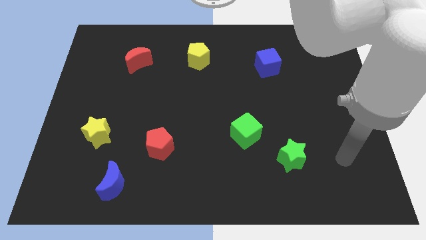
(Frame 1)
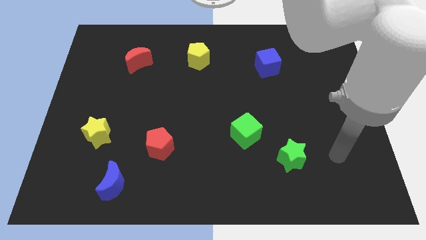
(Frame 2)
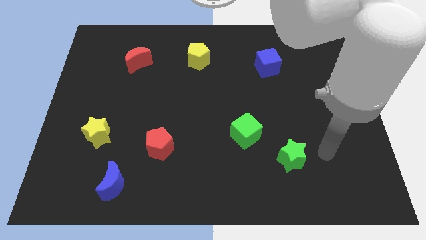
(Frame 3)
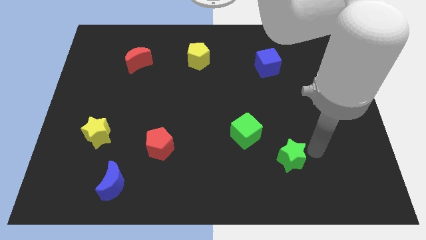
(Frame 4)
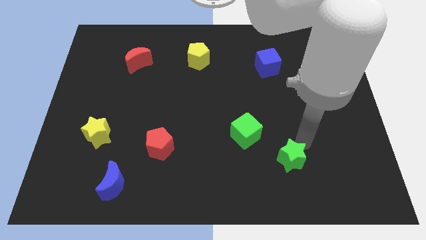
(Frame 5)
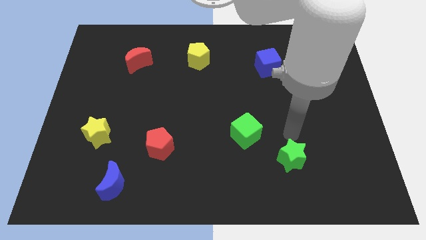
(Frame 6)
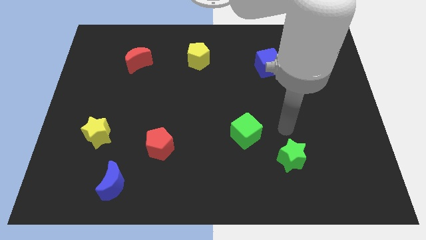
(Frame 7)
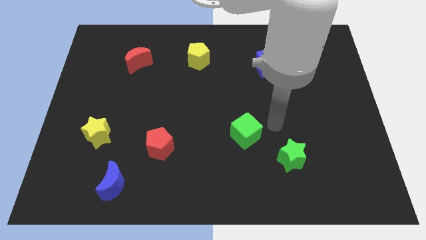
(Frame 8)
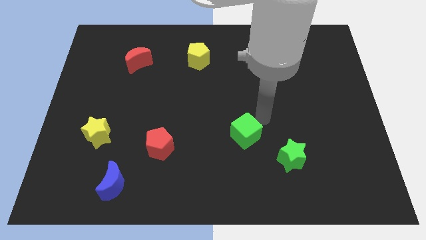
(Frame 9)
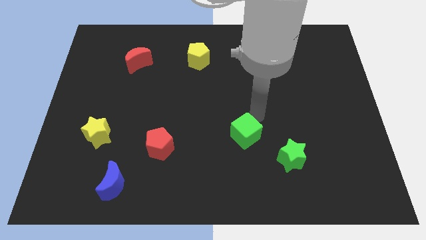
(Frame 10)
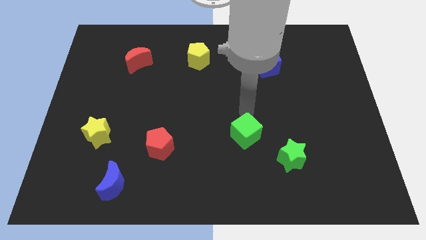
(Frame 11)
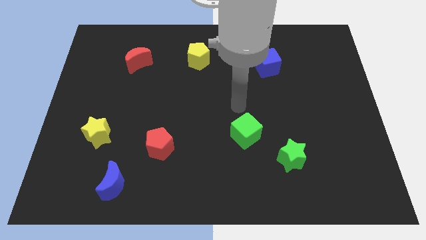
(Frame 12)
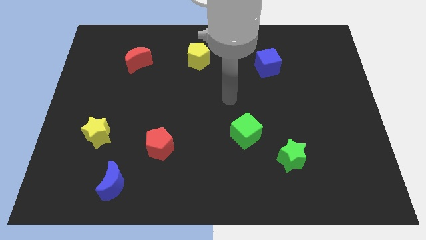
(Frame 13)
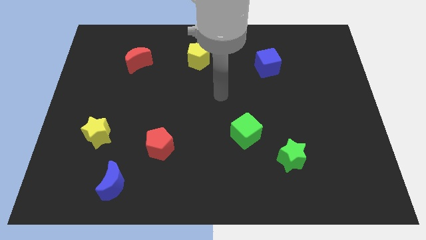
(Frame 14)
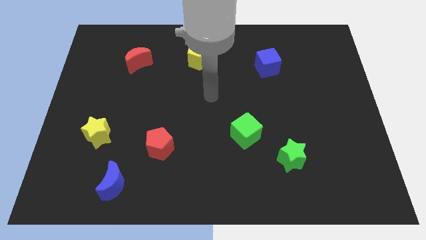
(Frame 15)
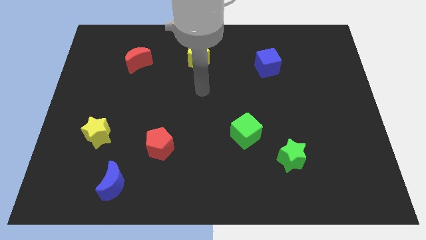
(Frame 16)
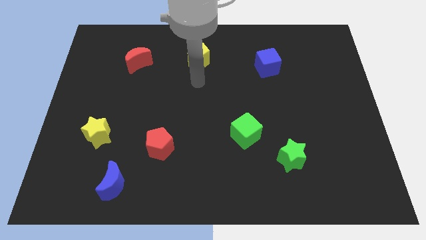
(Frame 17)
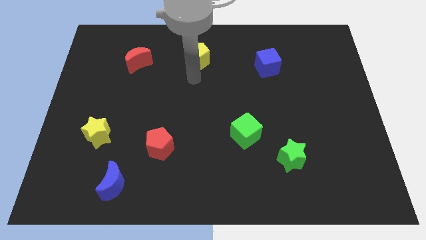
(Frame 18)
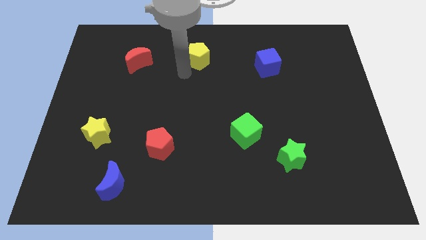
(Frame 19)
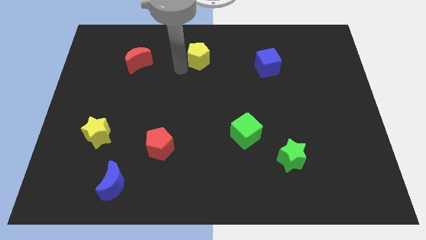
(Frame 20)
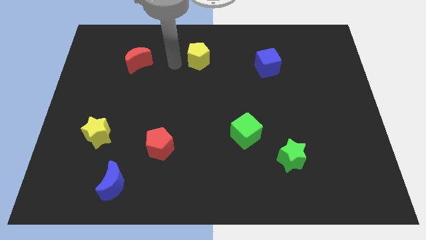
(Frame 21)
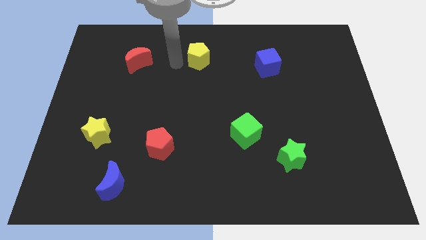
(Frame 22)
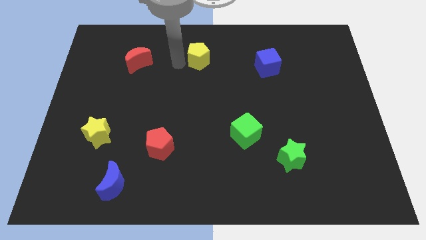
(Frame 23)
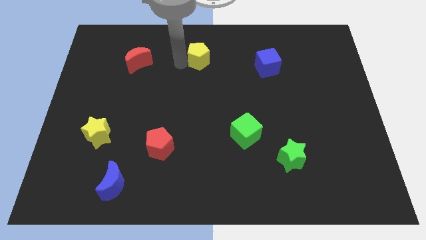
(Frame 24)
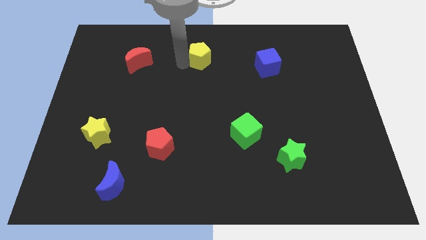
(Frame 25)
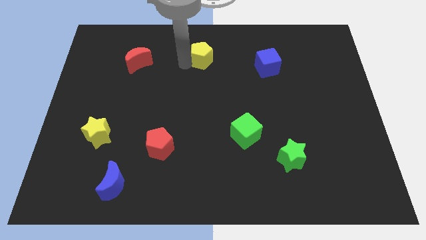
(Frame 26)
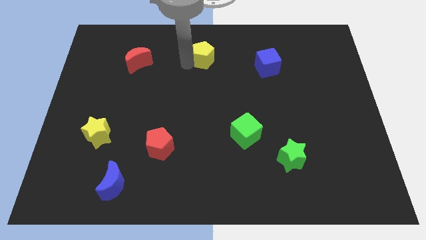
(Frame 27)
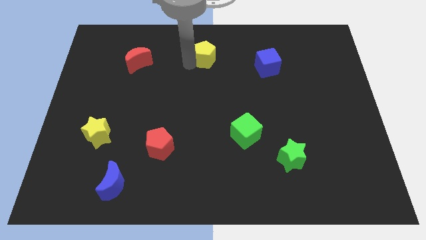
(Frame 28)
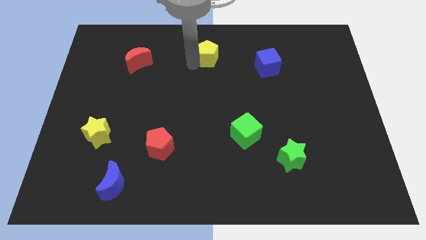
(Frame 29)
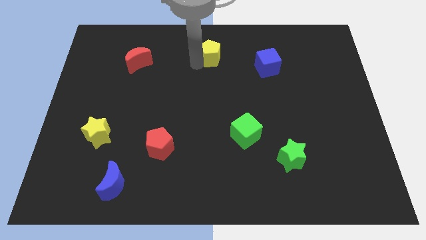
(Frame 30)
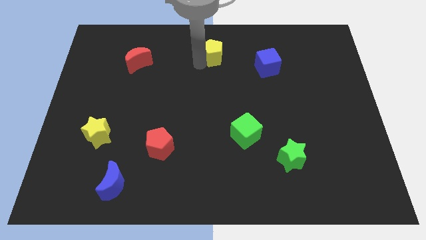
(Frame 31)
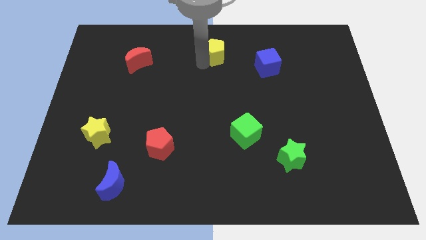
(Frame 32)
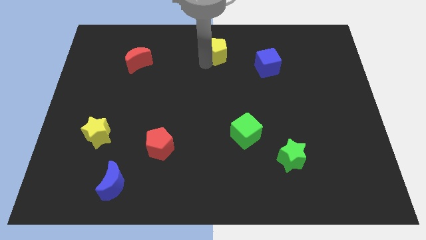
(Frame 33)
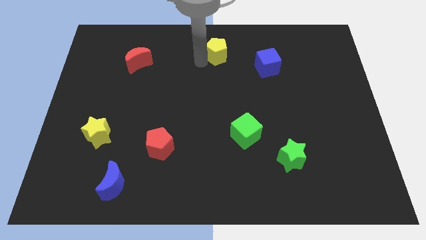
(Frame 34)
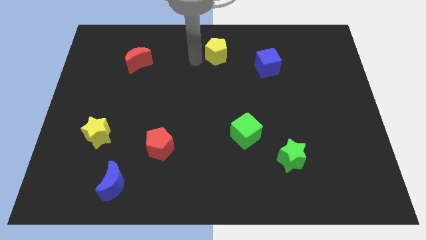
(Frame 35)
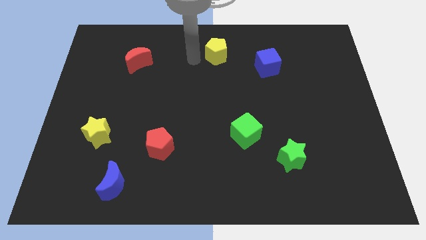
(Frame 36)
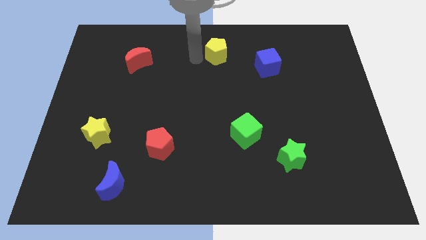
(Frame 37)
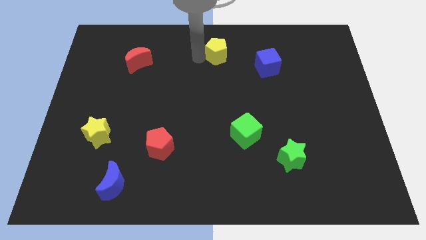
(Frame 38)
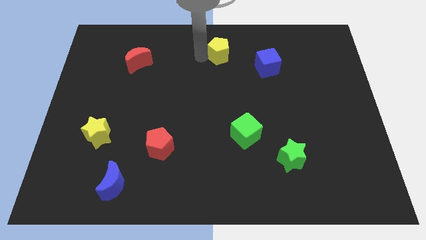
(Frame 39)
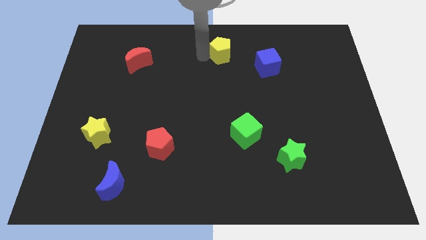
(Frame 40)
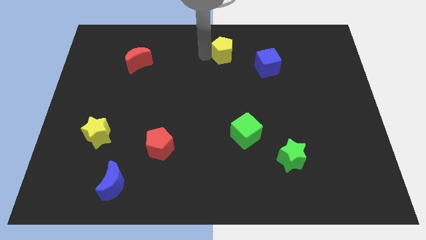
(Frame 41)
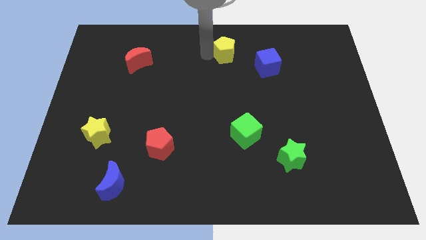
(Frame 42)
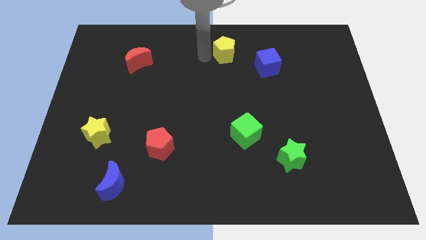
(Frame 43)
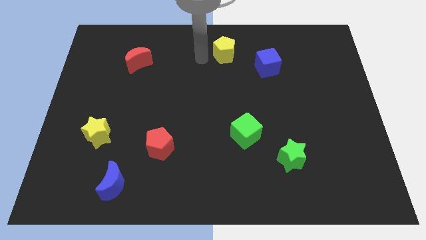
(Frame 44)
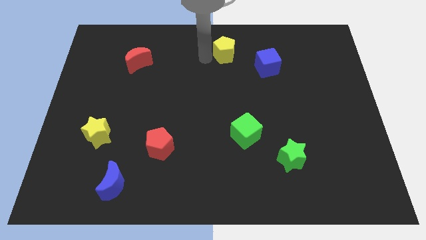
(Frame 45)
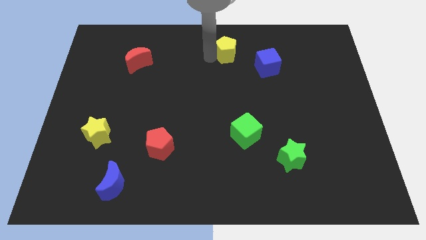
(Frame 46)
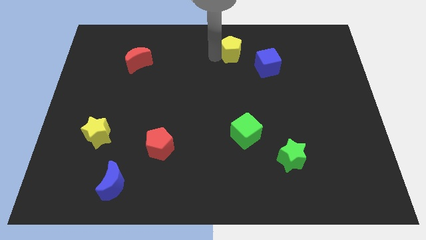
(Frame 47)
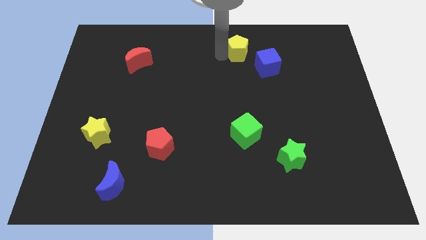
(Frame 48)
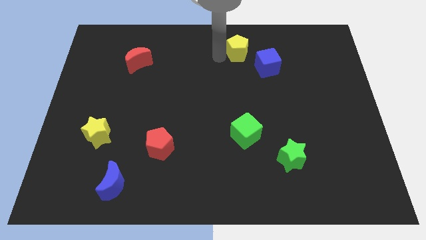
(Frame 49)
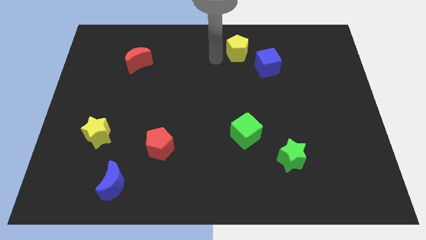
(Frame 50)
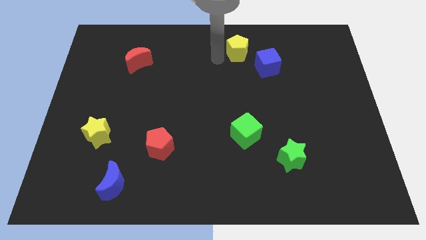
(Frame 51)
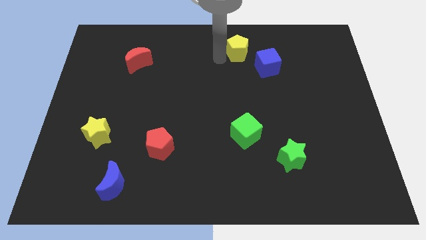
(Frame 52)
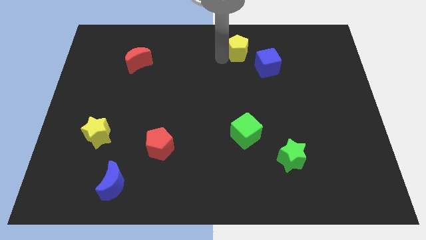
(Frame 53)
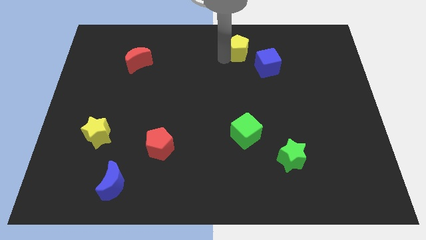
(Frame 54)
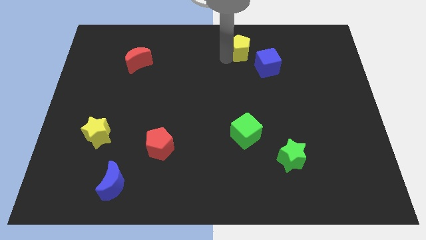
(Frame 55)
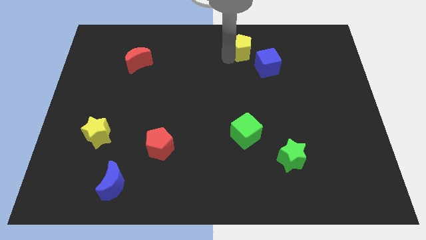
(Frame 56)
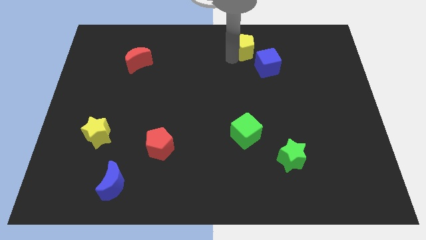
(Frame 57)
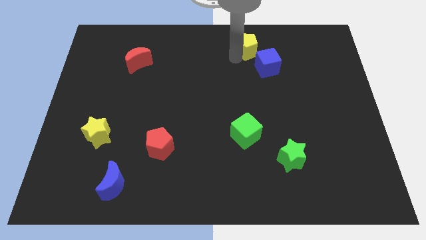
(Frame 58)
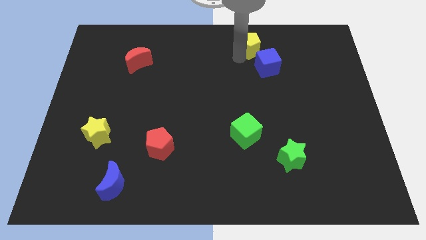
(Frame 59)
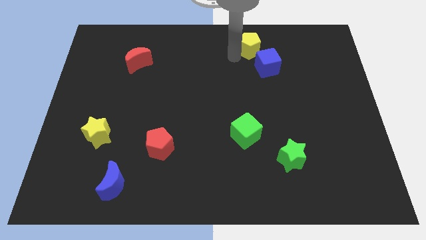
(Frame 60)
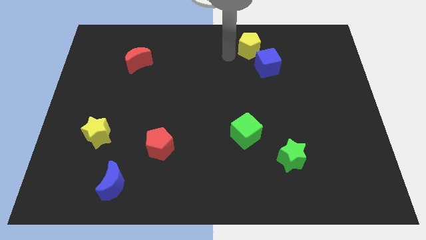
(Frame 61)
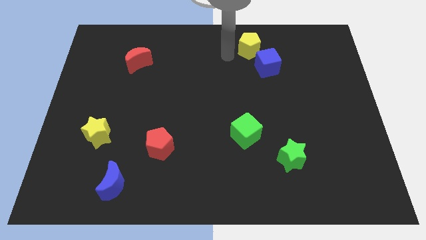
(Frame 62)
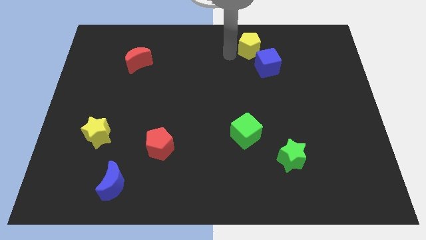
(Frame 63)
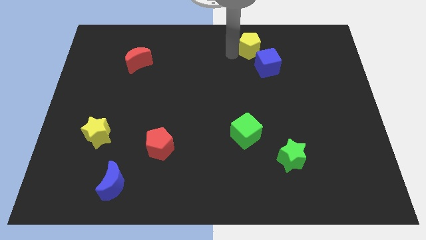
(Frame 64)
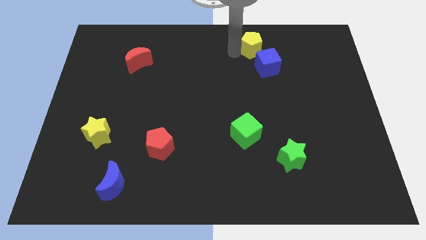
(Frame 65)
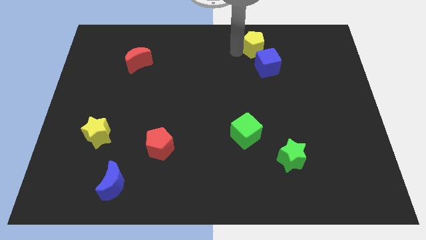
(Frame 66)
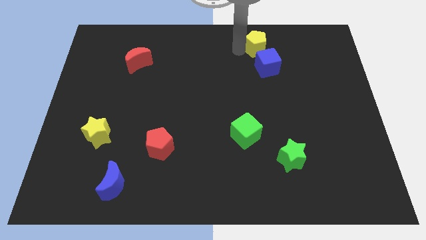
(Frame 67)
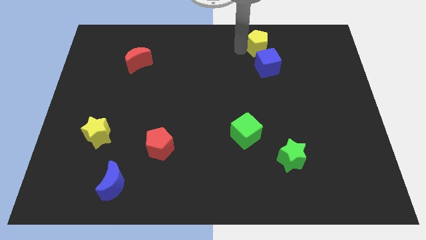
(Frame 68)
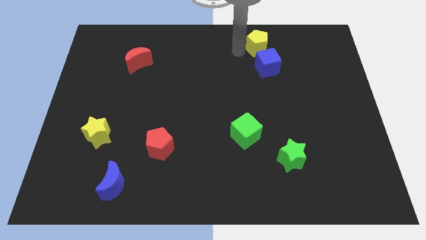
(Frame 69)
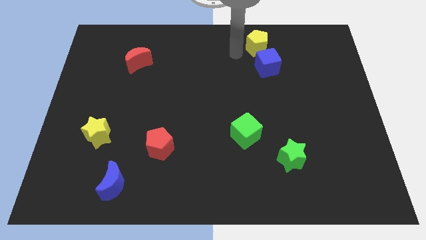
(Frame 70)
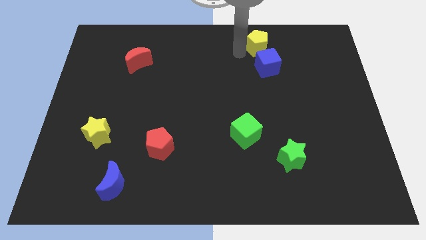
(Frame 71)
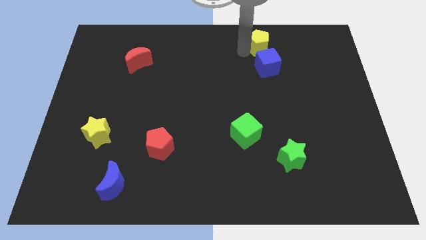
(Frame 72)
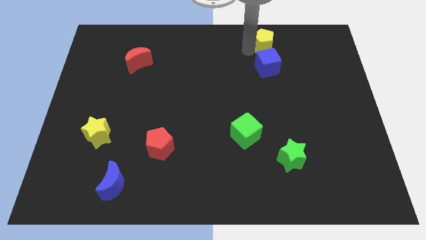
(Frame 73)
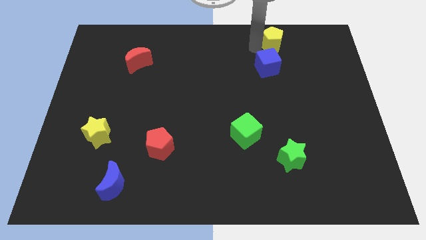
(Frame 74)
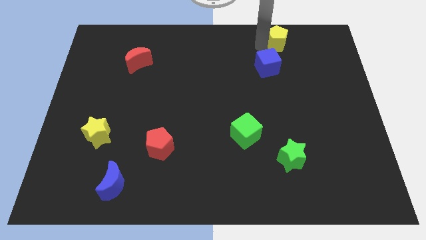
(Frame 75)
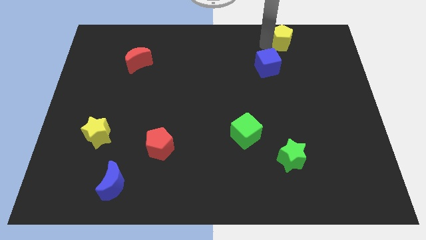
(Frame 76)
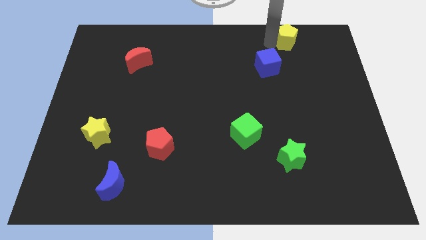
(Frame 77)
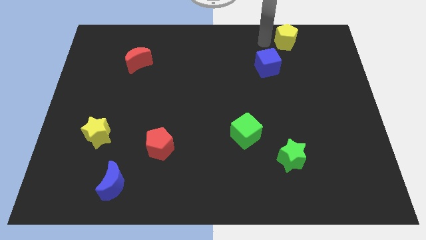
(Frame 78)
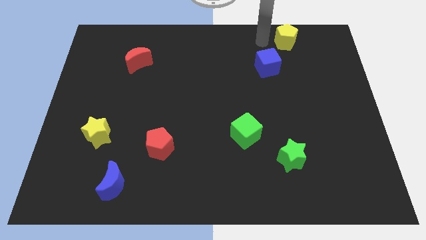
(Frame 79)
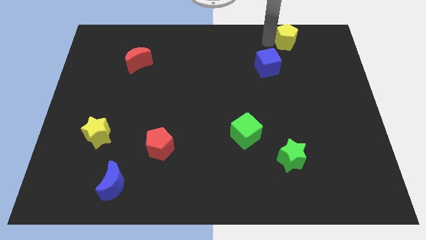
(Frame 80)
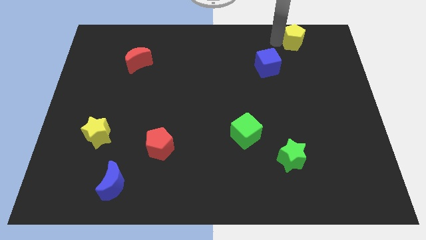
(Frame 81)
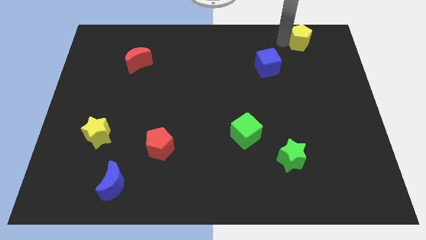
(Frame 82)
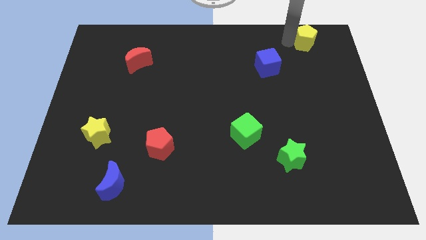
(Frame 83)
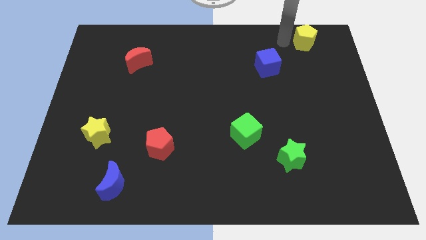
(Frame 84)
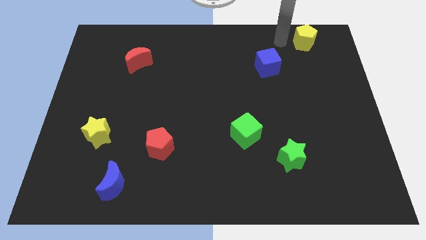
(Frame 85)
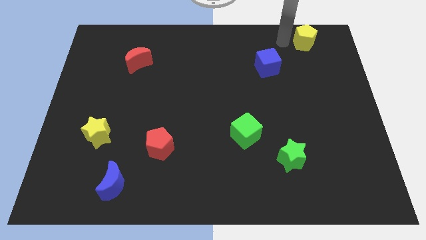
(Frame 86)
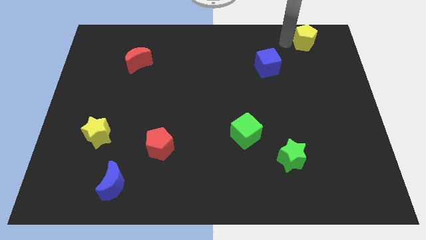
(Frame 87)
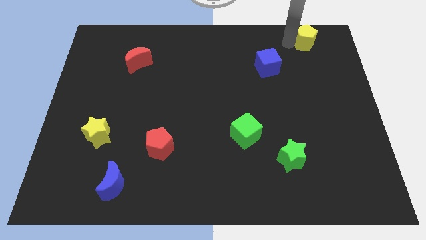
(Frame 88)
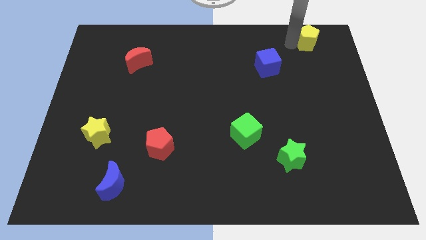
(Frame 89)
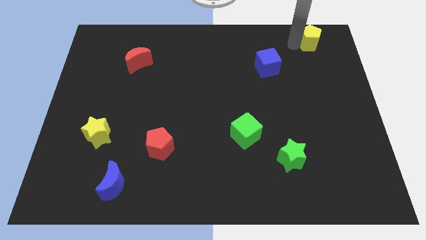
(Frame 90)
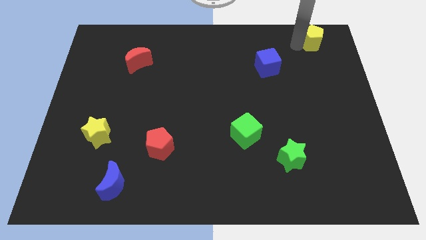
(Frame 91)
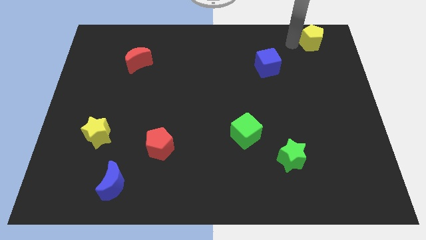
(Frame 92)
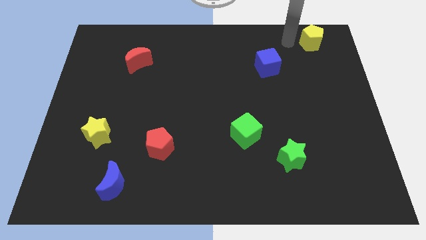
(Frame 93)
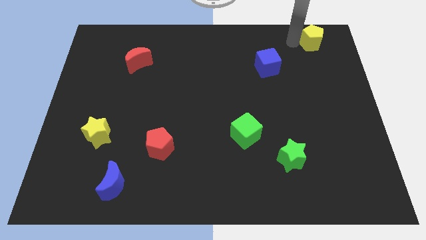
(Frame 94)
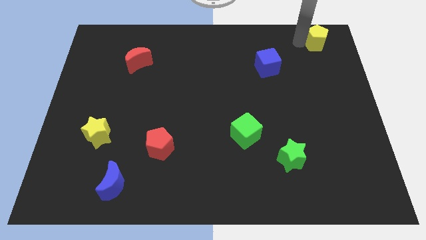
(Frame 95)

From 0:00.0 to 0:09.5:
move the yellow pentagon to the top right of the board
